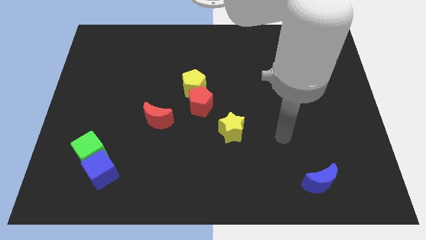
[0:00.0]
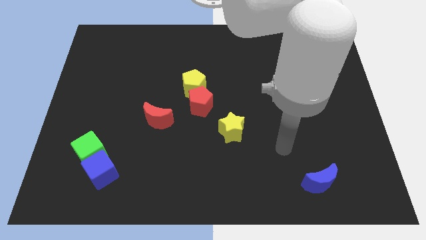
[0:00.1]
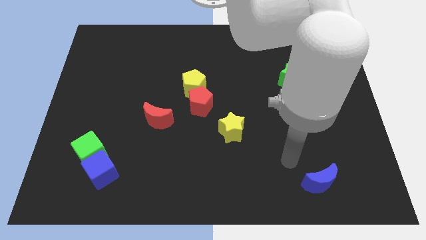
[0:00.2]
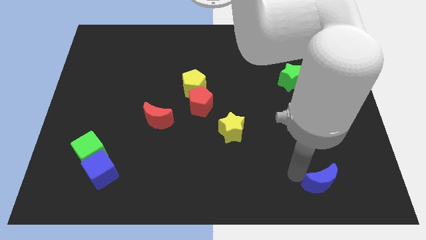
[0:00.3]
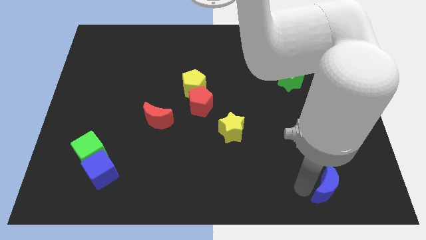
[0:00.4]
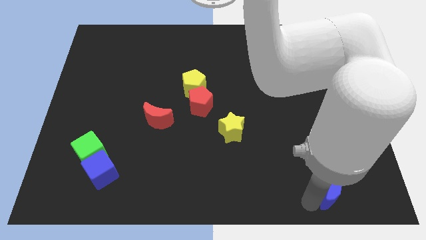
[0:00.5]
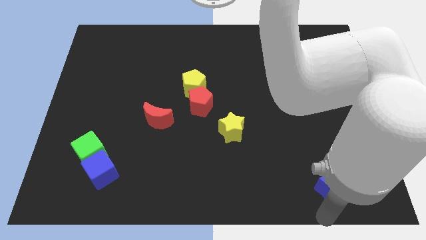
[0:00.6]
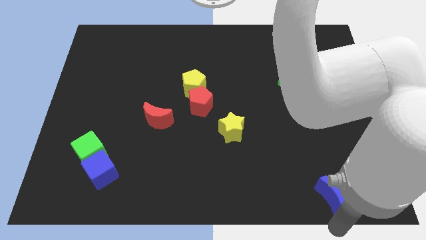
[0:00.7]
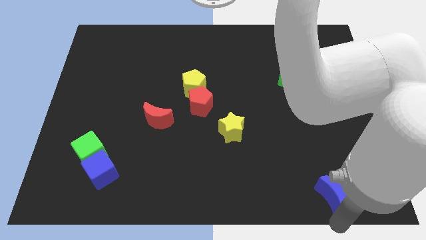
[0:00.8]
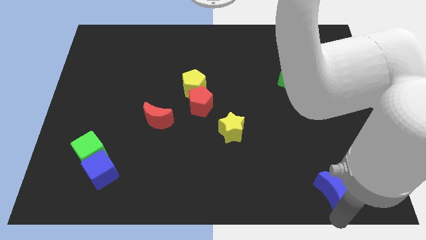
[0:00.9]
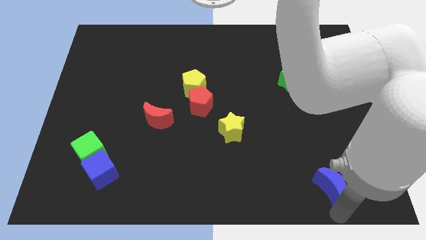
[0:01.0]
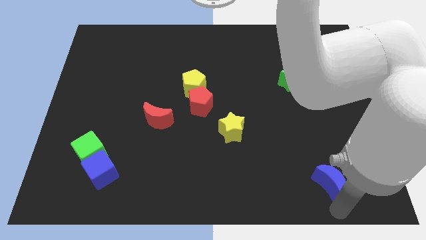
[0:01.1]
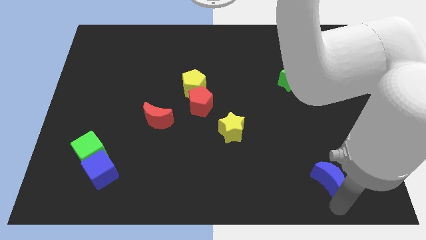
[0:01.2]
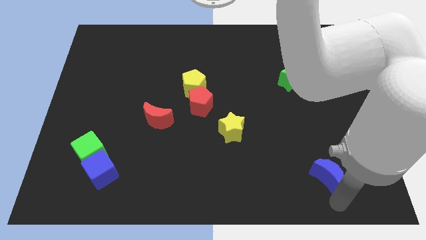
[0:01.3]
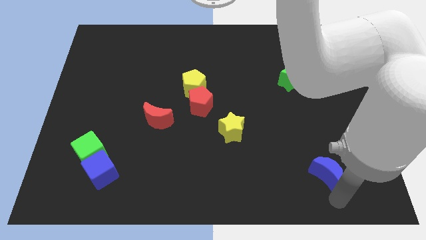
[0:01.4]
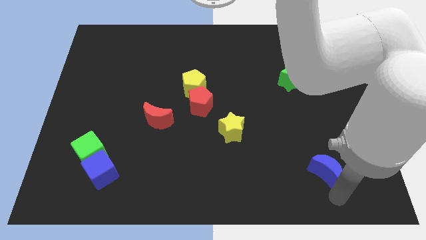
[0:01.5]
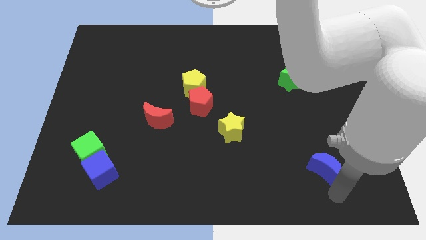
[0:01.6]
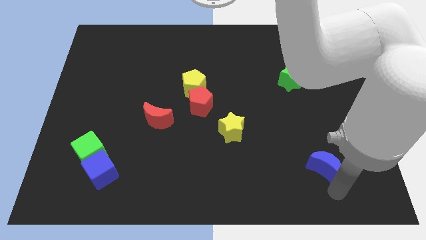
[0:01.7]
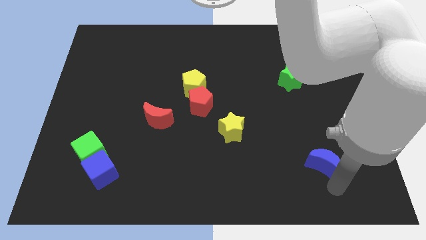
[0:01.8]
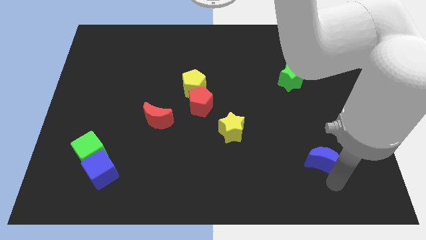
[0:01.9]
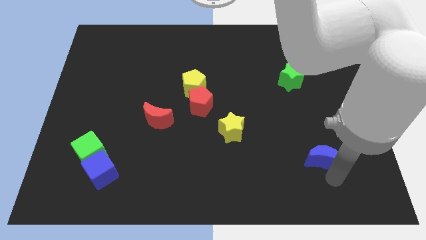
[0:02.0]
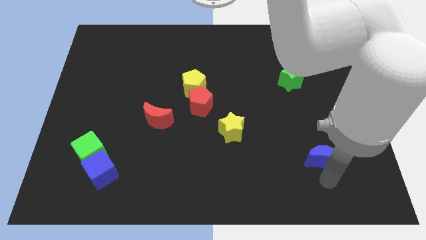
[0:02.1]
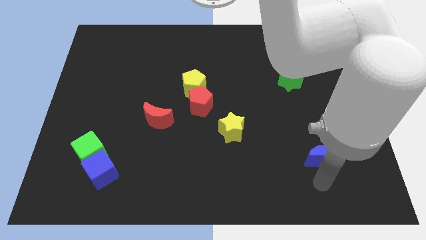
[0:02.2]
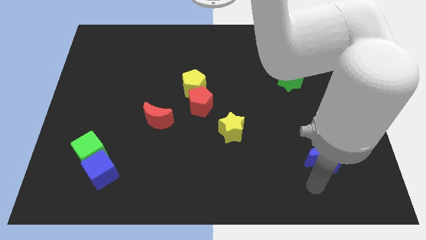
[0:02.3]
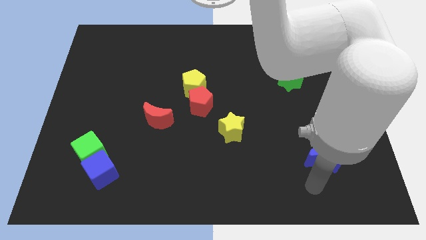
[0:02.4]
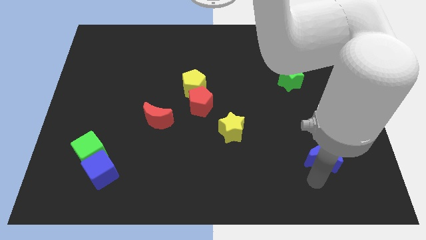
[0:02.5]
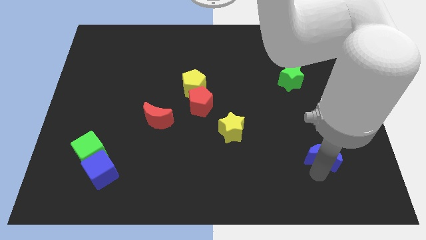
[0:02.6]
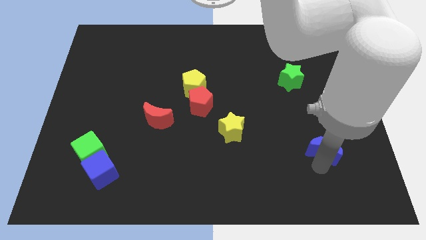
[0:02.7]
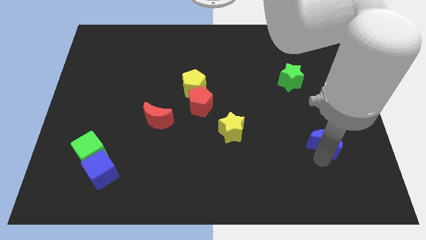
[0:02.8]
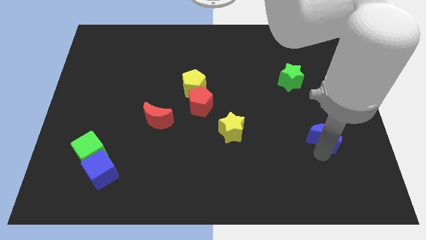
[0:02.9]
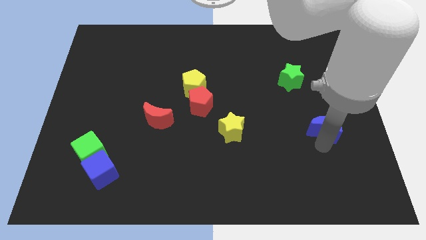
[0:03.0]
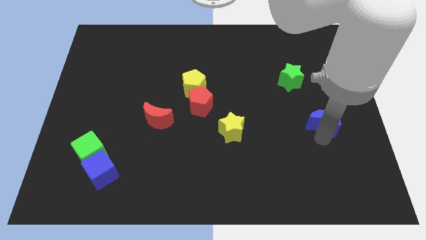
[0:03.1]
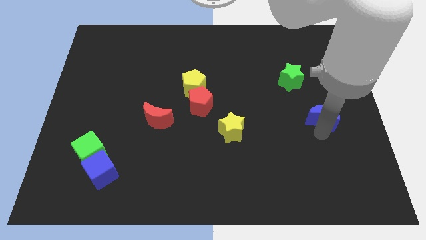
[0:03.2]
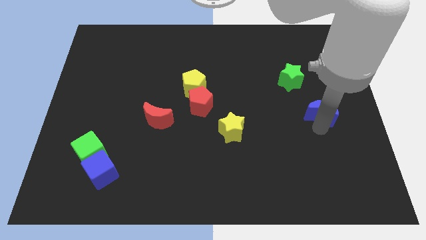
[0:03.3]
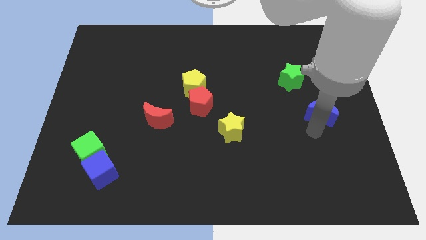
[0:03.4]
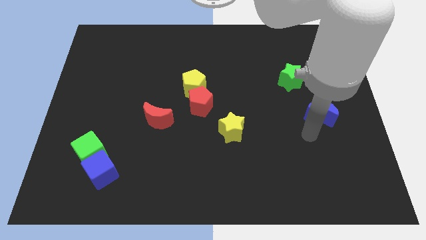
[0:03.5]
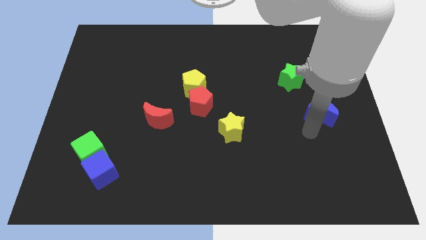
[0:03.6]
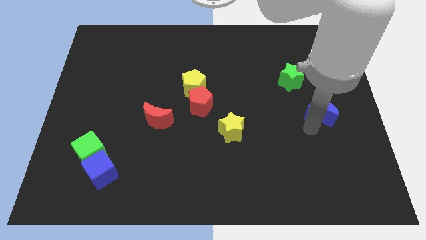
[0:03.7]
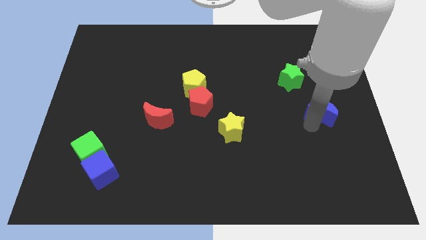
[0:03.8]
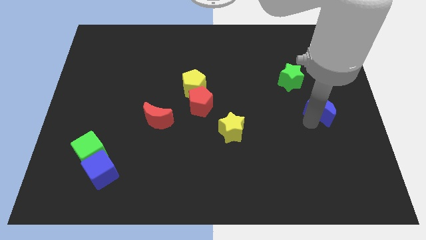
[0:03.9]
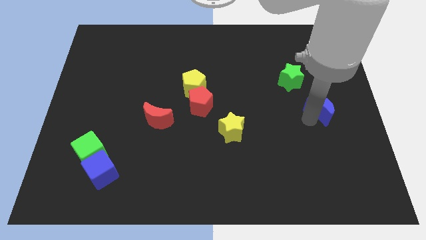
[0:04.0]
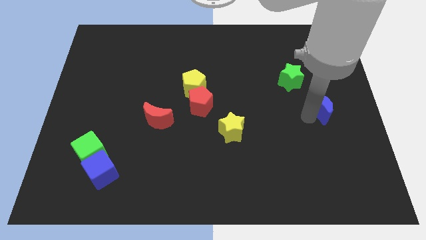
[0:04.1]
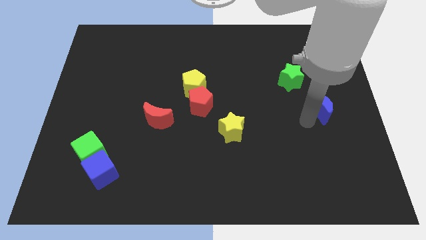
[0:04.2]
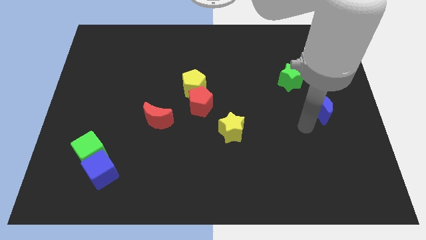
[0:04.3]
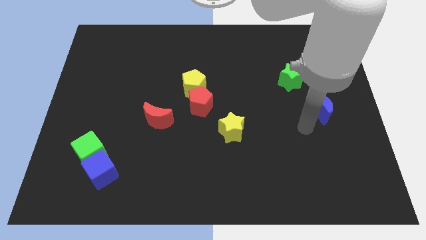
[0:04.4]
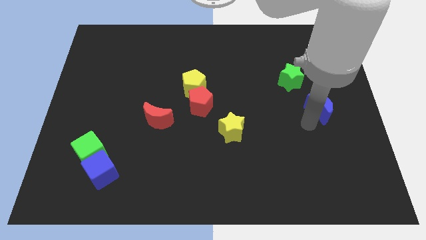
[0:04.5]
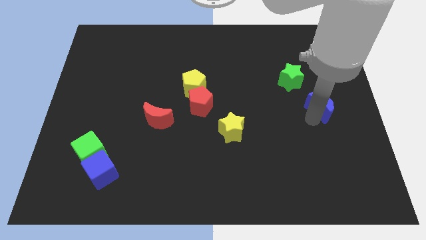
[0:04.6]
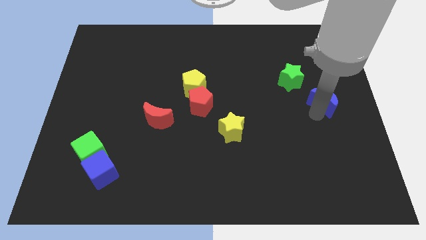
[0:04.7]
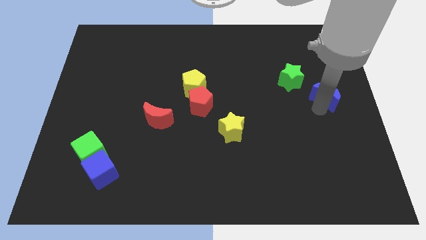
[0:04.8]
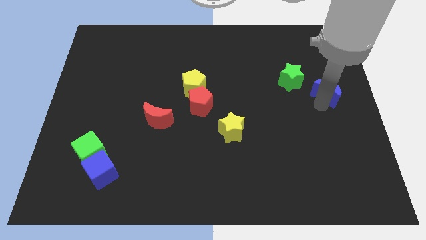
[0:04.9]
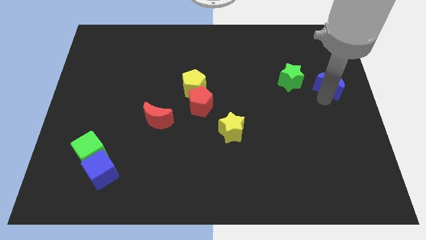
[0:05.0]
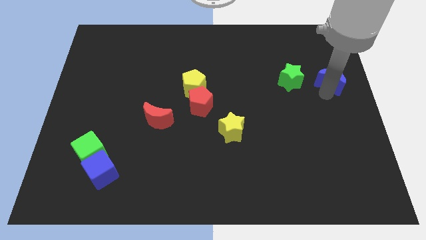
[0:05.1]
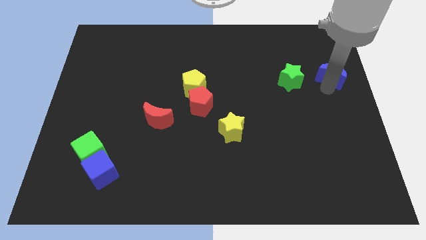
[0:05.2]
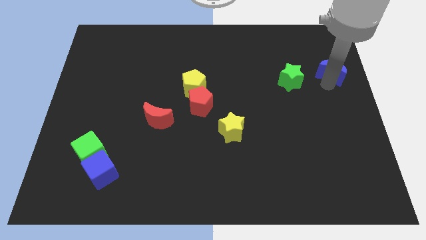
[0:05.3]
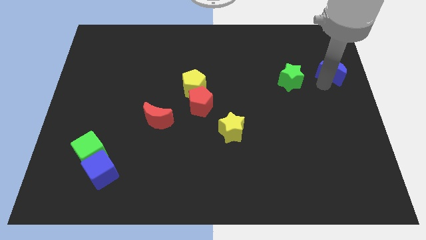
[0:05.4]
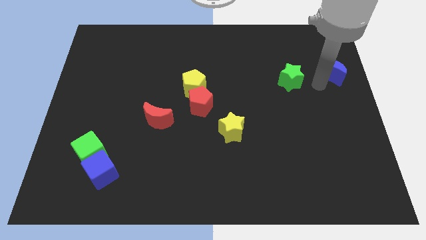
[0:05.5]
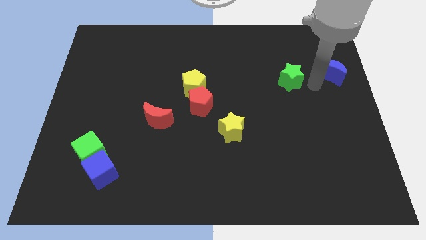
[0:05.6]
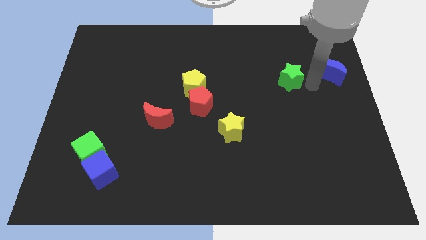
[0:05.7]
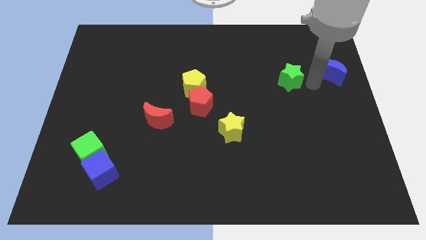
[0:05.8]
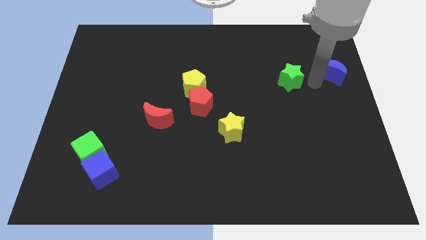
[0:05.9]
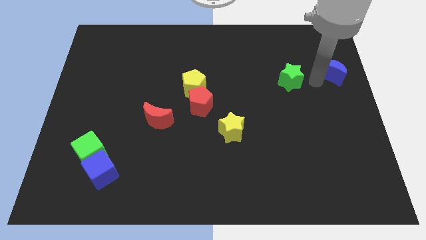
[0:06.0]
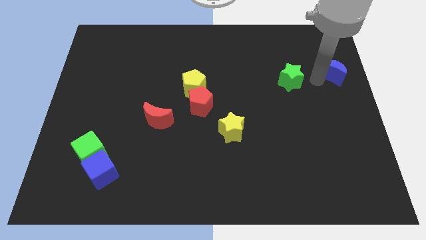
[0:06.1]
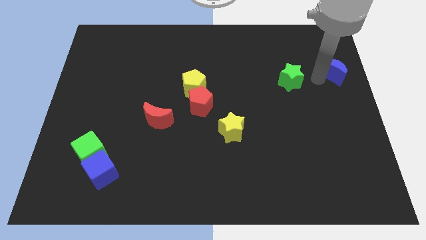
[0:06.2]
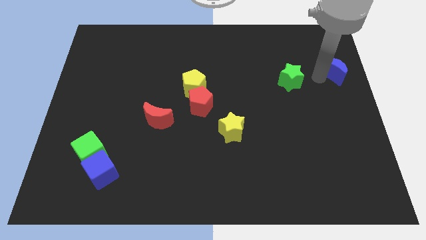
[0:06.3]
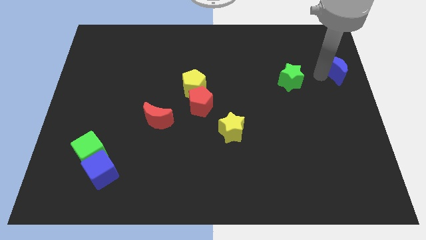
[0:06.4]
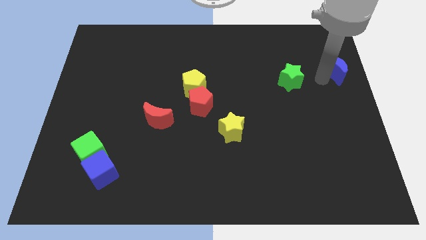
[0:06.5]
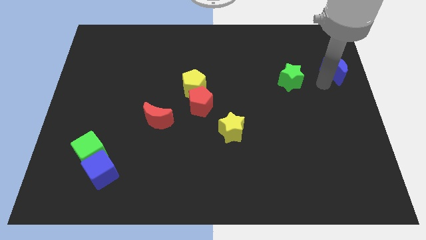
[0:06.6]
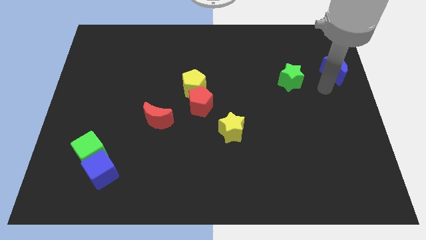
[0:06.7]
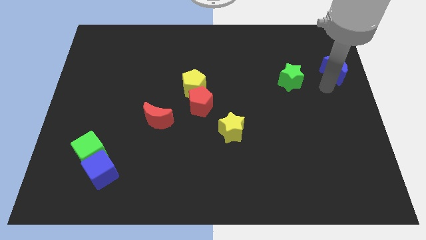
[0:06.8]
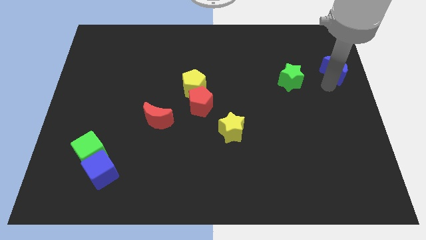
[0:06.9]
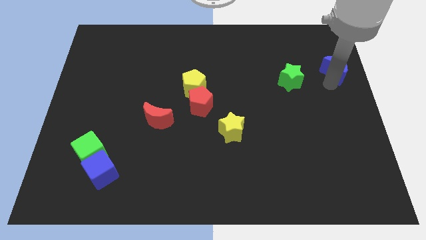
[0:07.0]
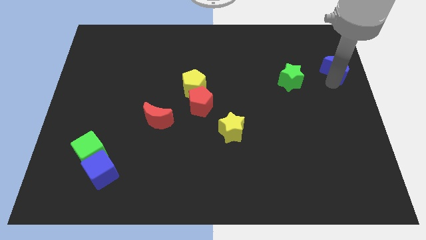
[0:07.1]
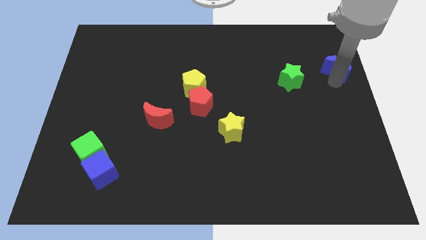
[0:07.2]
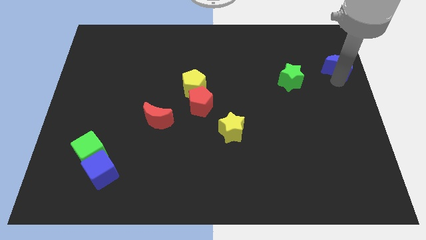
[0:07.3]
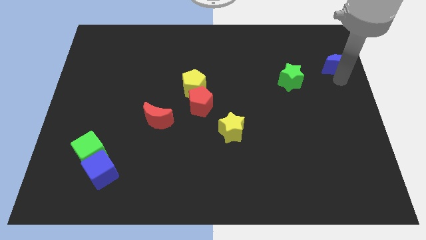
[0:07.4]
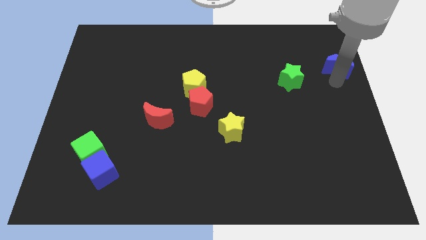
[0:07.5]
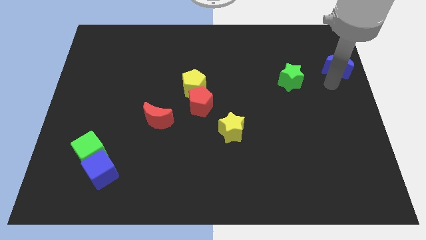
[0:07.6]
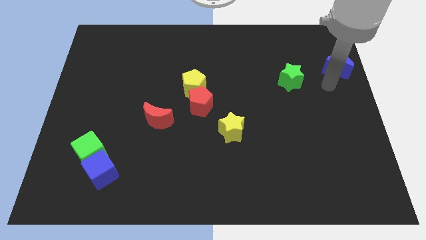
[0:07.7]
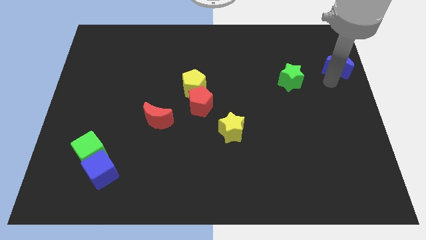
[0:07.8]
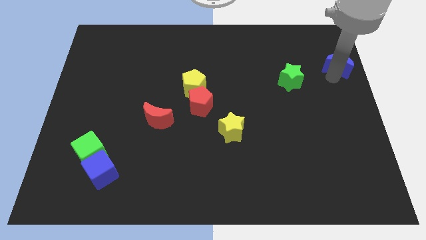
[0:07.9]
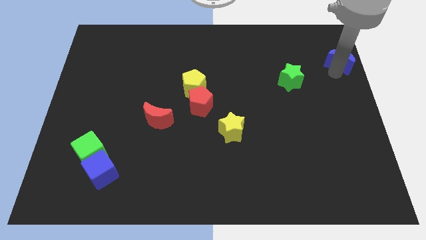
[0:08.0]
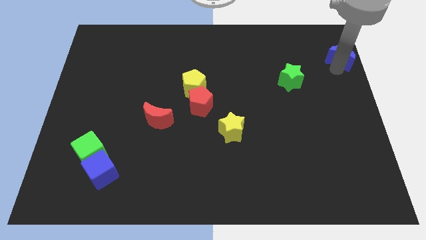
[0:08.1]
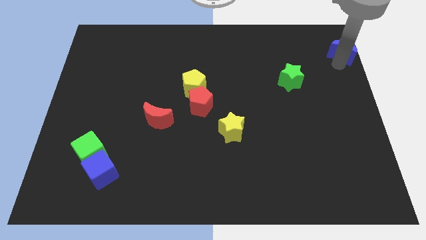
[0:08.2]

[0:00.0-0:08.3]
move the blue moon to the top right corner
